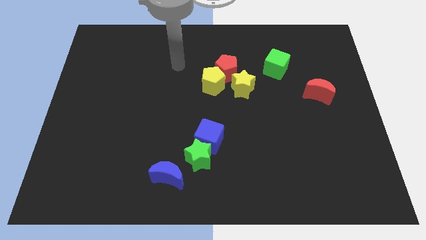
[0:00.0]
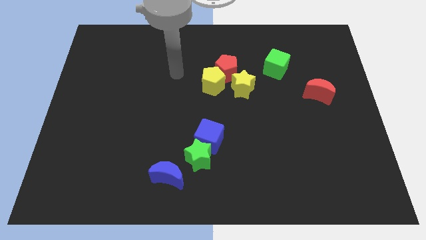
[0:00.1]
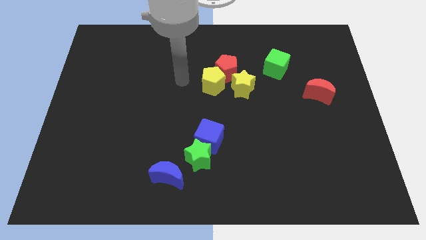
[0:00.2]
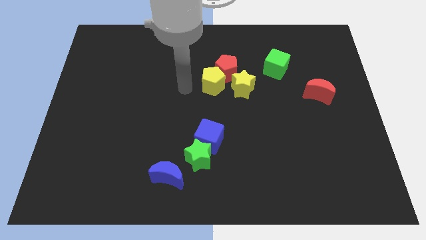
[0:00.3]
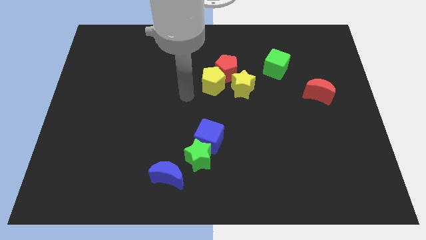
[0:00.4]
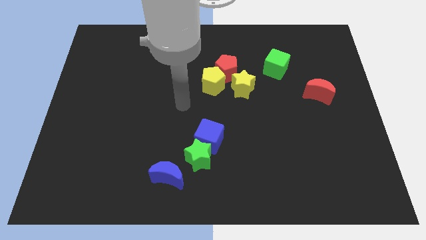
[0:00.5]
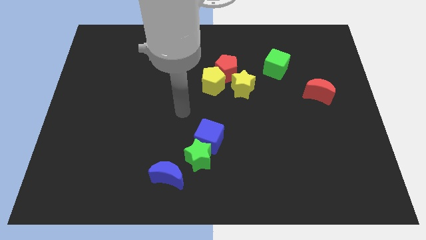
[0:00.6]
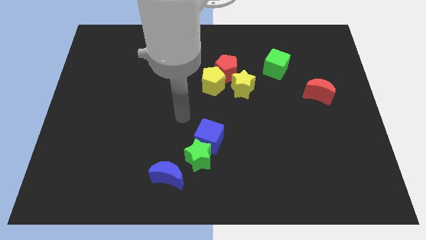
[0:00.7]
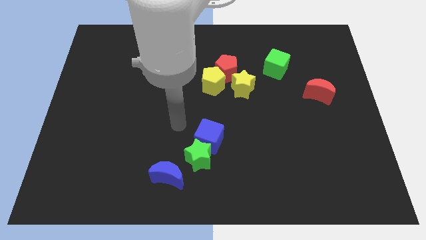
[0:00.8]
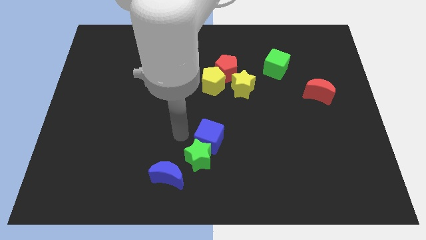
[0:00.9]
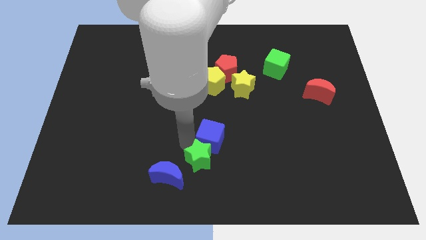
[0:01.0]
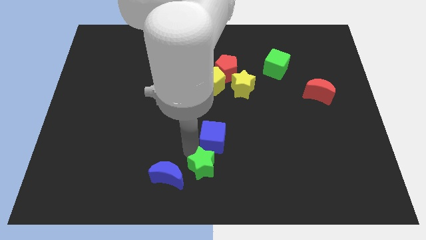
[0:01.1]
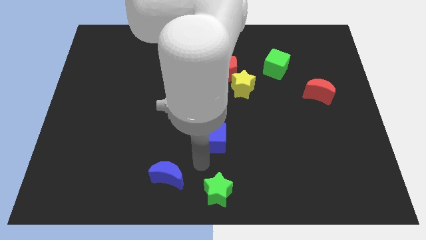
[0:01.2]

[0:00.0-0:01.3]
move the blue cube away from the green star

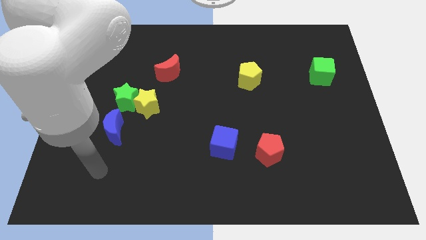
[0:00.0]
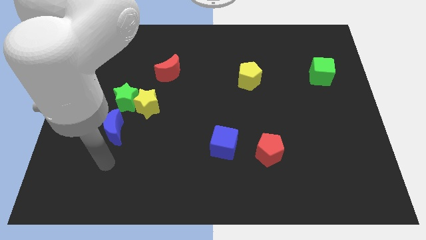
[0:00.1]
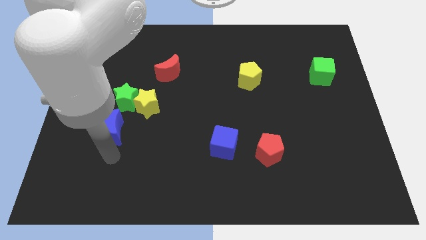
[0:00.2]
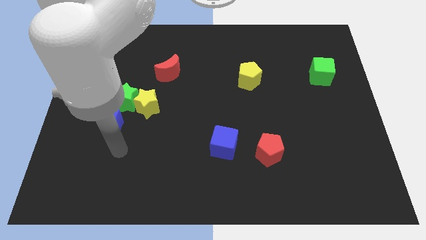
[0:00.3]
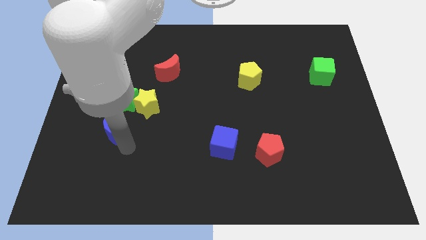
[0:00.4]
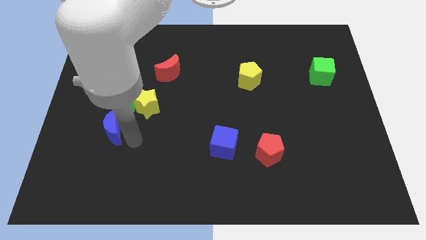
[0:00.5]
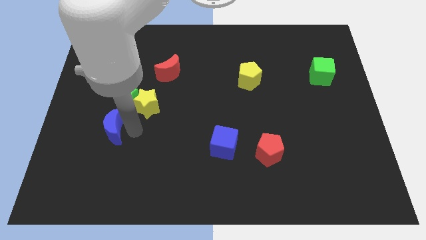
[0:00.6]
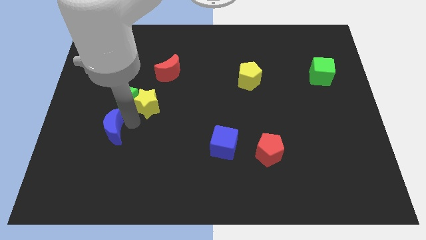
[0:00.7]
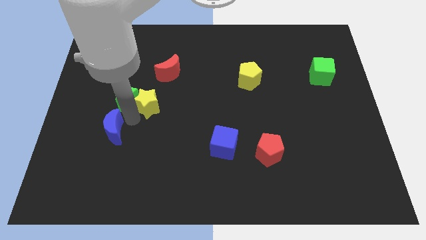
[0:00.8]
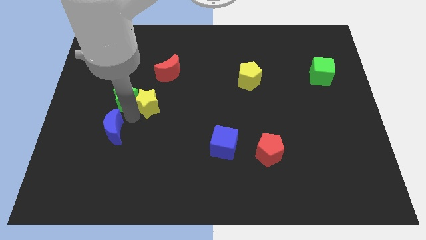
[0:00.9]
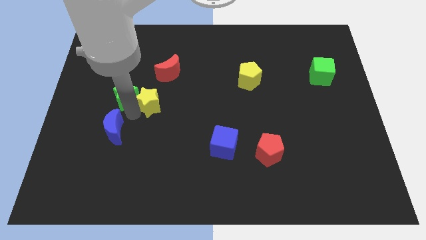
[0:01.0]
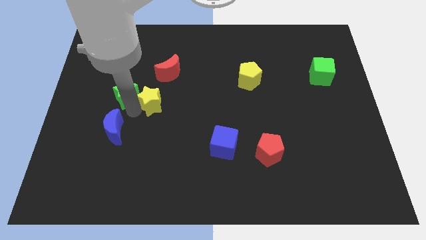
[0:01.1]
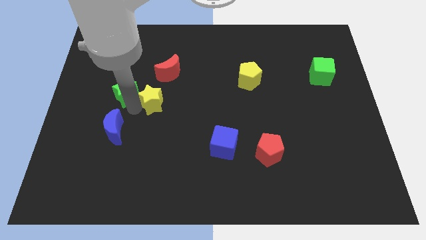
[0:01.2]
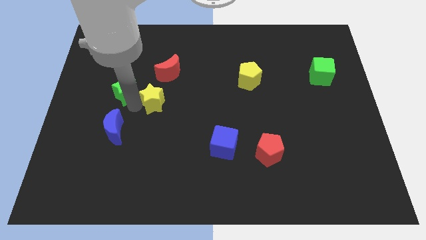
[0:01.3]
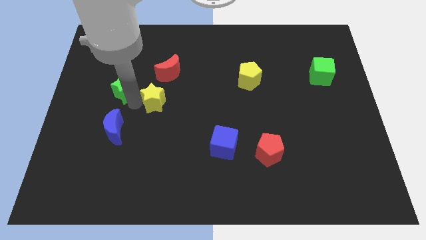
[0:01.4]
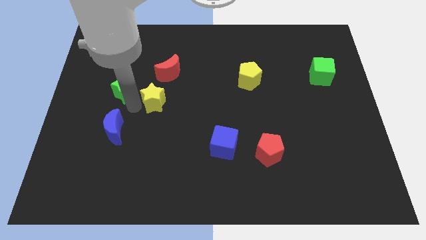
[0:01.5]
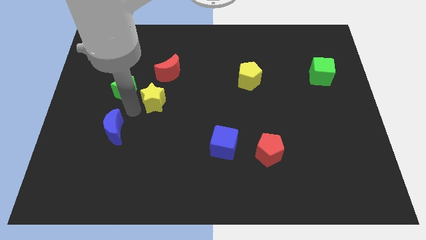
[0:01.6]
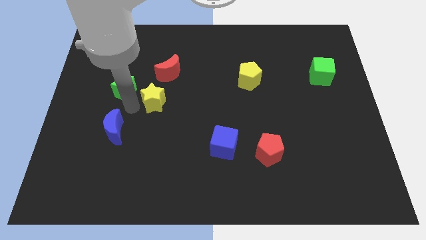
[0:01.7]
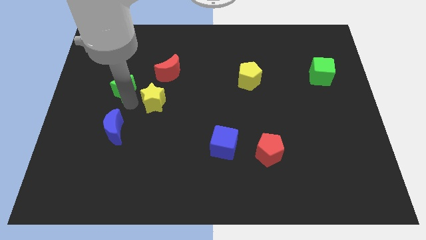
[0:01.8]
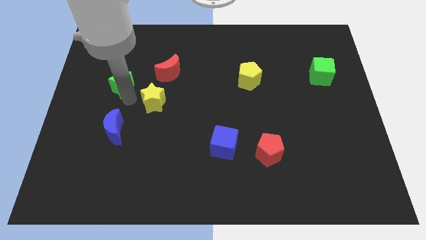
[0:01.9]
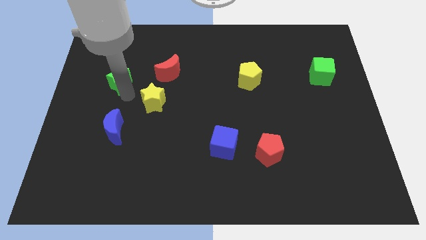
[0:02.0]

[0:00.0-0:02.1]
separate the green star from the yellow star and blue moon

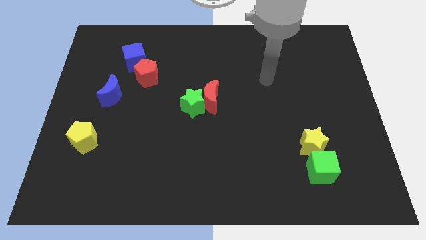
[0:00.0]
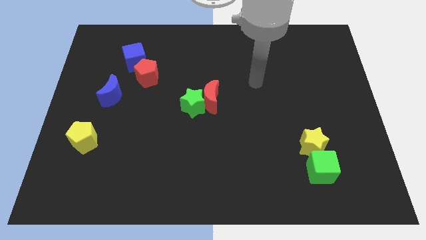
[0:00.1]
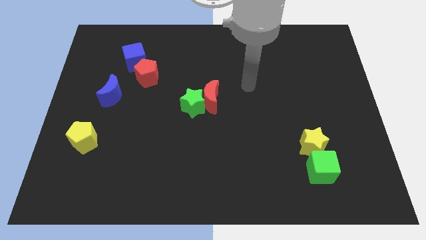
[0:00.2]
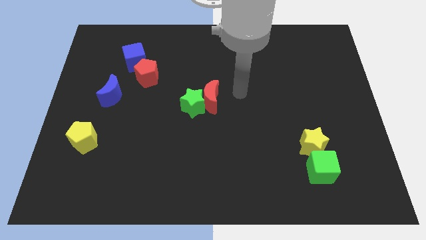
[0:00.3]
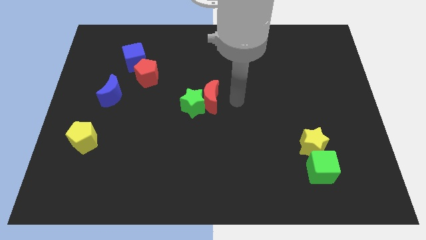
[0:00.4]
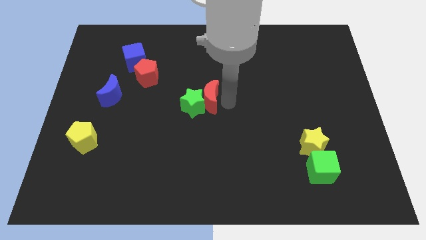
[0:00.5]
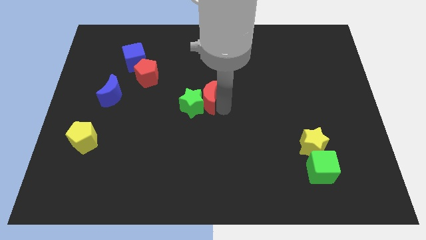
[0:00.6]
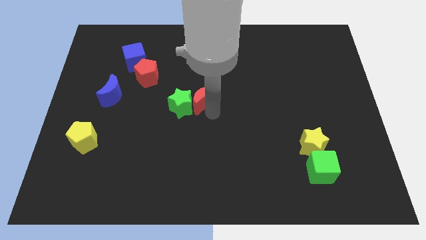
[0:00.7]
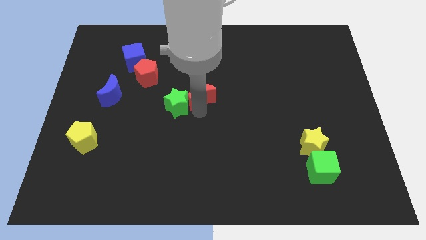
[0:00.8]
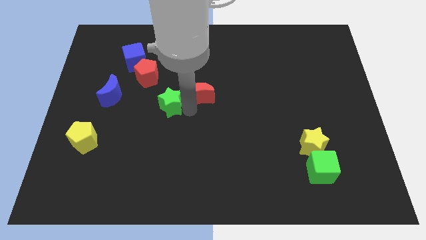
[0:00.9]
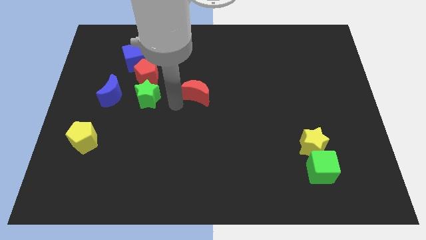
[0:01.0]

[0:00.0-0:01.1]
separate the red moon from the green star

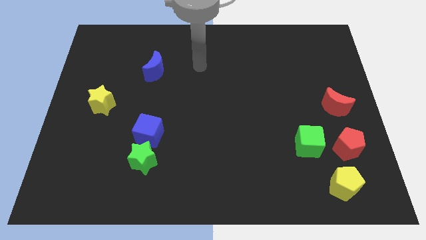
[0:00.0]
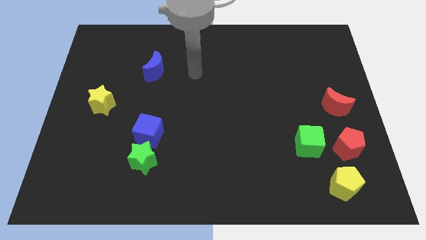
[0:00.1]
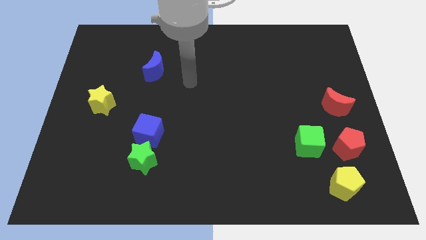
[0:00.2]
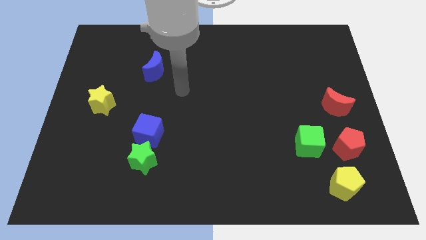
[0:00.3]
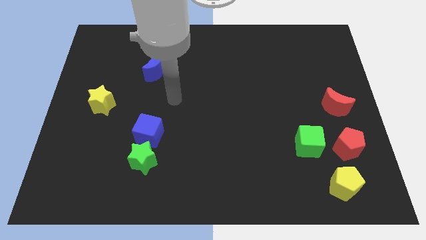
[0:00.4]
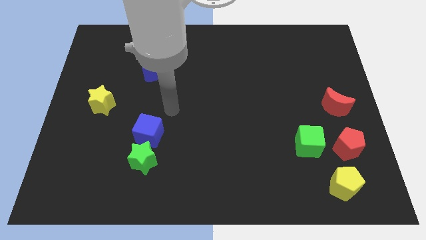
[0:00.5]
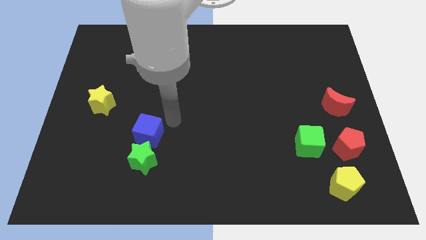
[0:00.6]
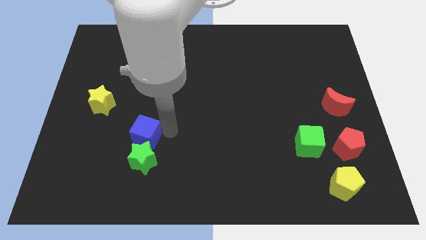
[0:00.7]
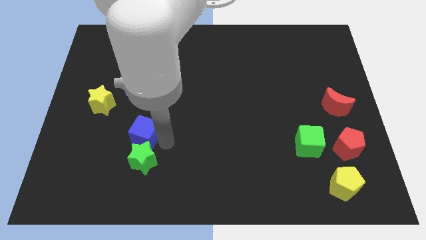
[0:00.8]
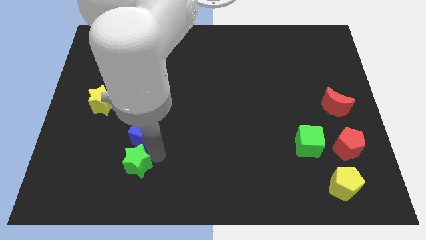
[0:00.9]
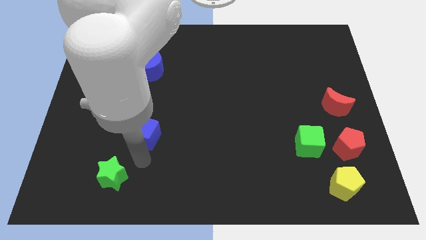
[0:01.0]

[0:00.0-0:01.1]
pull the blue cube apart from the green star

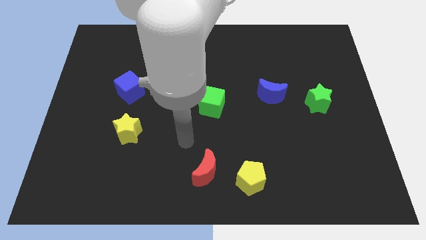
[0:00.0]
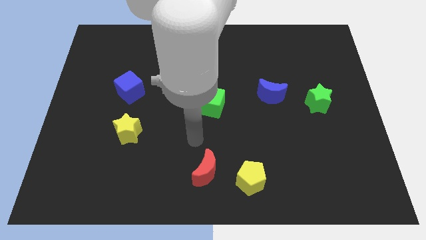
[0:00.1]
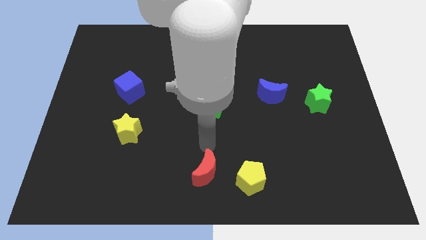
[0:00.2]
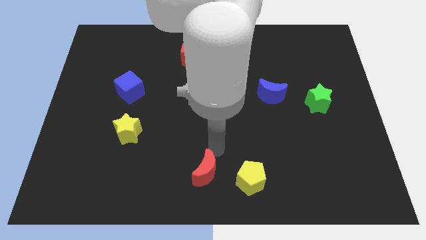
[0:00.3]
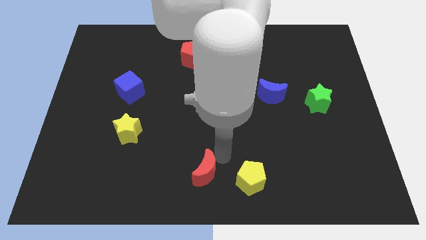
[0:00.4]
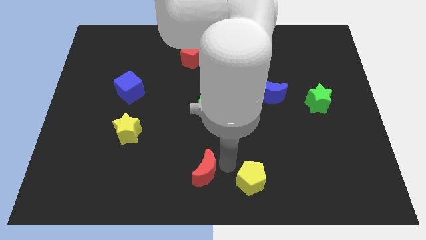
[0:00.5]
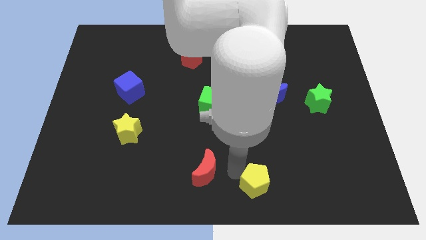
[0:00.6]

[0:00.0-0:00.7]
pull the red moon apart from the yellow pentagon

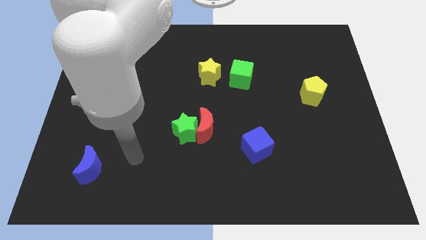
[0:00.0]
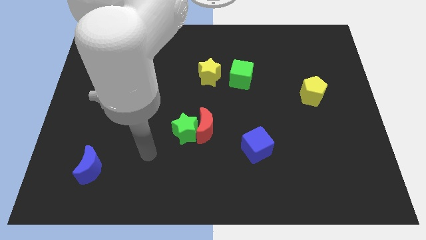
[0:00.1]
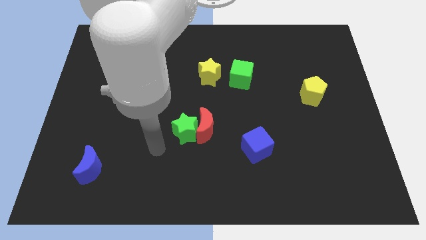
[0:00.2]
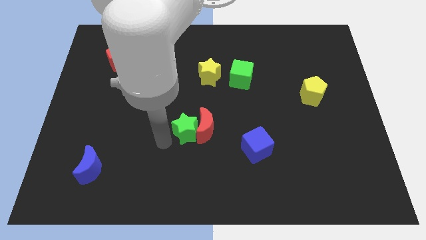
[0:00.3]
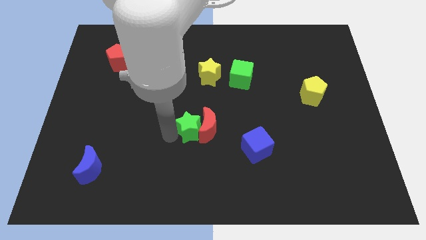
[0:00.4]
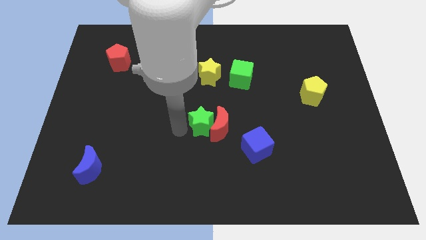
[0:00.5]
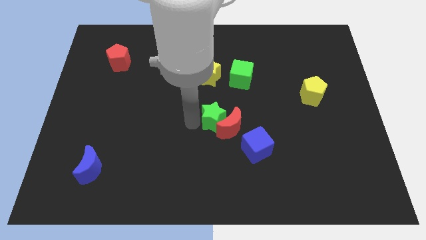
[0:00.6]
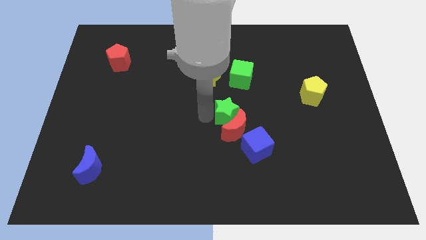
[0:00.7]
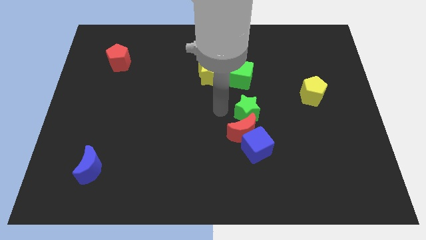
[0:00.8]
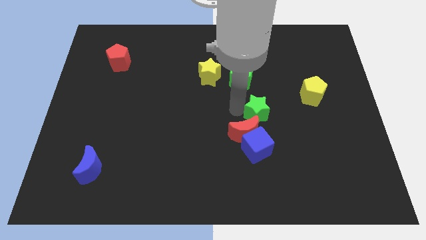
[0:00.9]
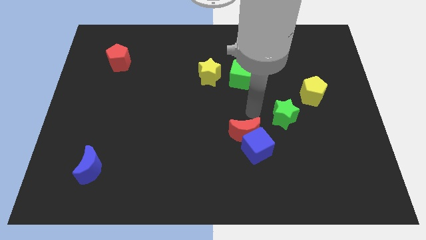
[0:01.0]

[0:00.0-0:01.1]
pull the red moon apart from the green star

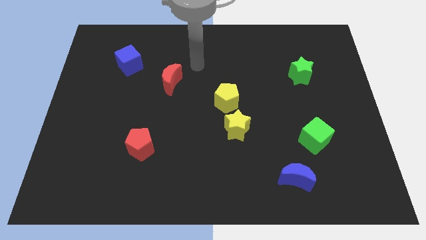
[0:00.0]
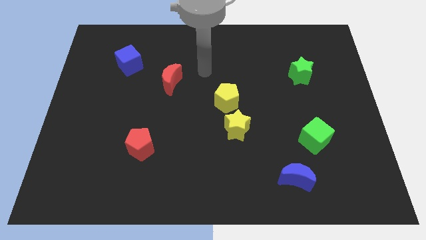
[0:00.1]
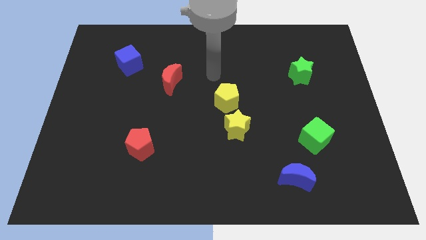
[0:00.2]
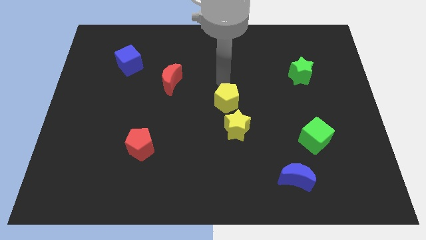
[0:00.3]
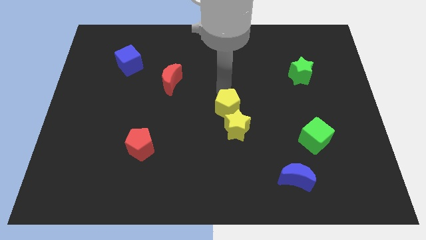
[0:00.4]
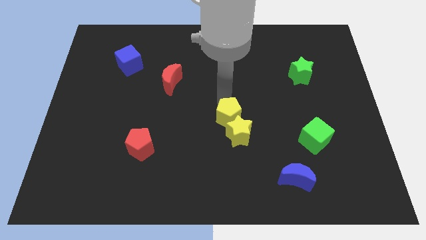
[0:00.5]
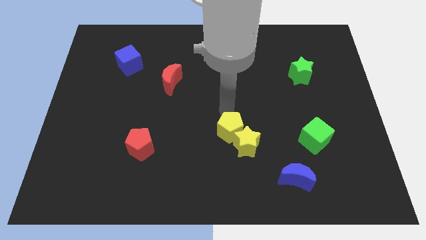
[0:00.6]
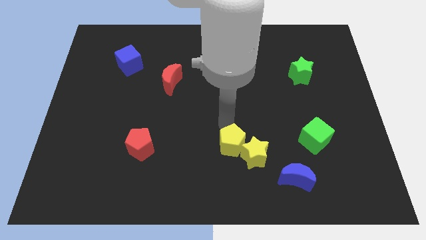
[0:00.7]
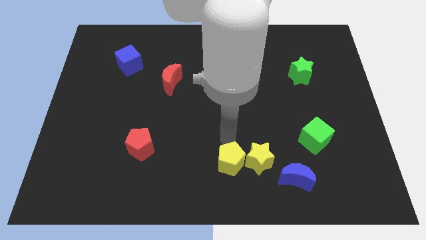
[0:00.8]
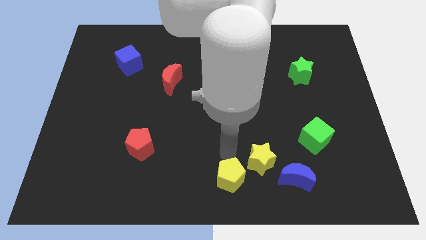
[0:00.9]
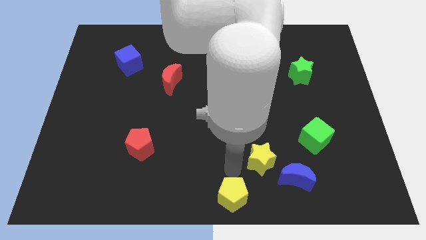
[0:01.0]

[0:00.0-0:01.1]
separate the yellow star from the yellow pentagon

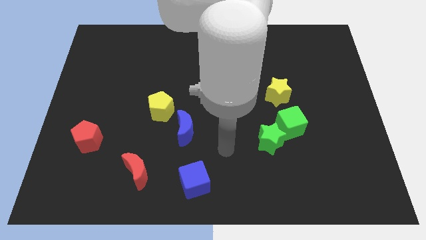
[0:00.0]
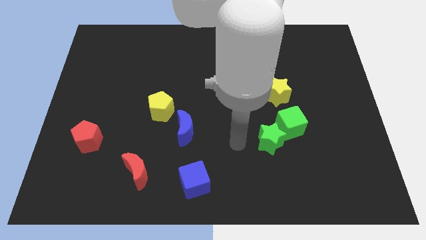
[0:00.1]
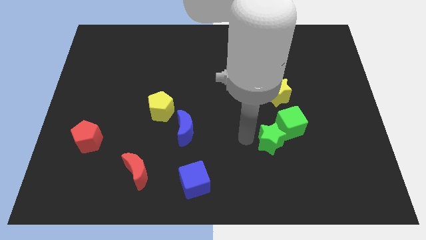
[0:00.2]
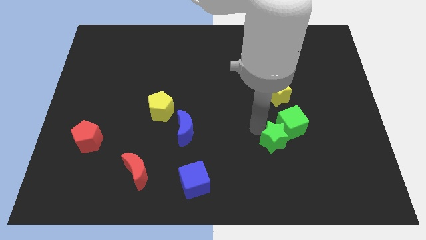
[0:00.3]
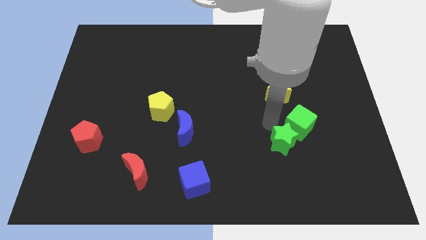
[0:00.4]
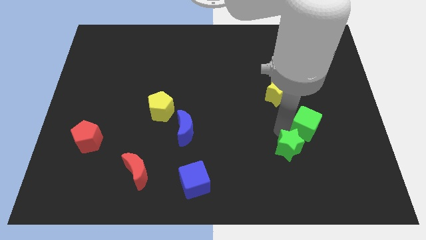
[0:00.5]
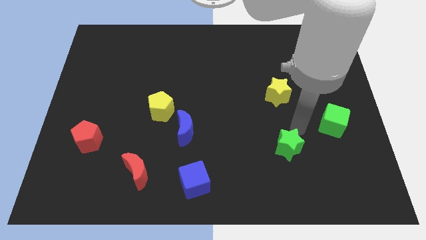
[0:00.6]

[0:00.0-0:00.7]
separate the green star from the green cube
